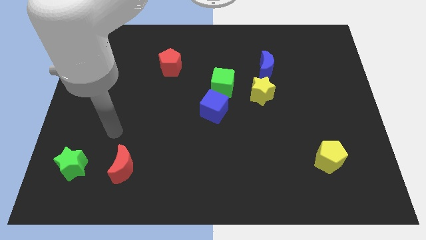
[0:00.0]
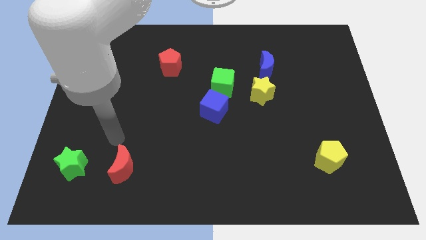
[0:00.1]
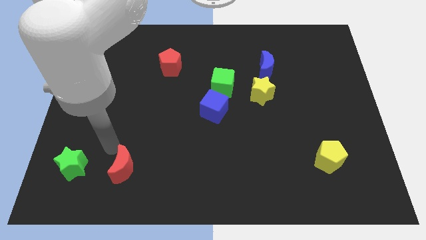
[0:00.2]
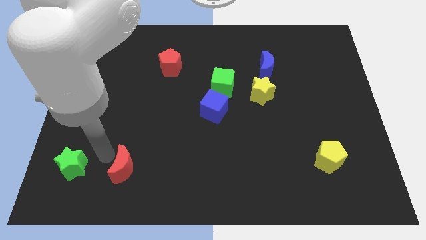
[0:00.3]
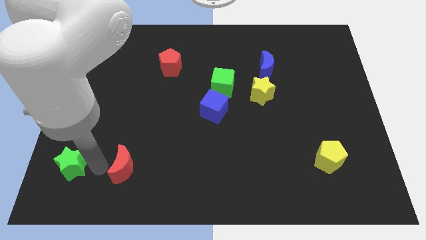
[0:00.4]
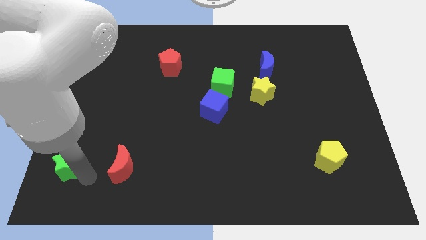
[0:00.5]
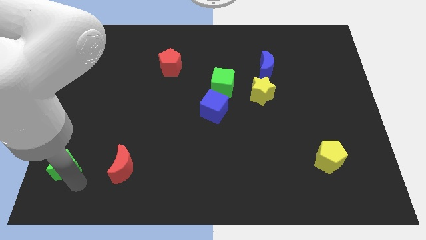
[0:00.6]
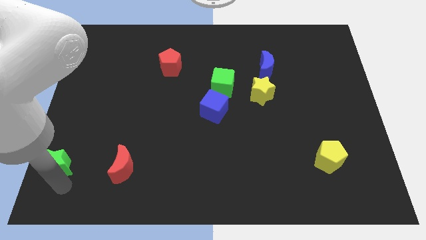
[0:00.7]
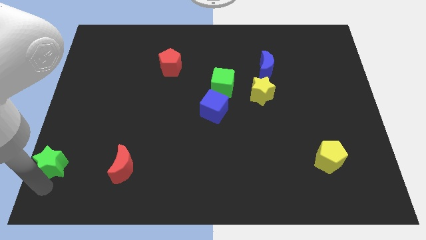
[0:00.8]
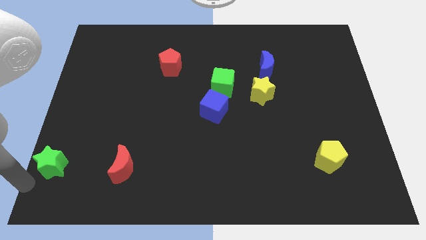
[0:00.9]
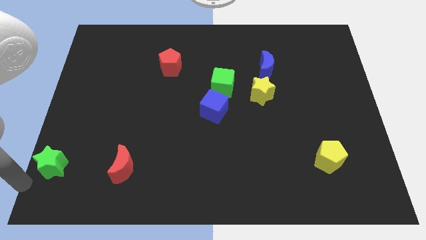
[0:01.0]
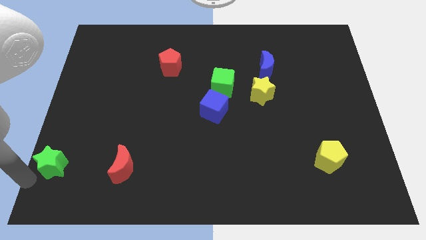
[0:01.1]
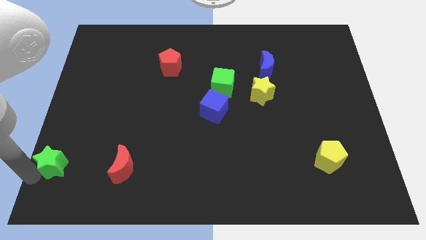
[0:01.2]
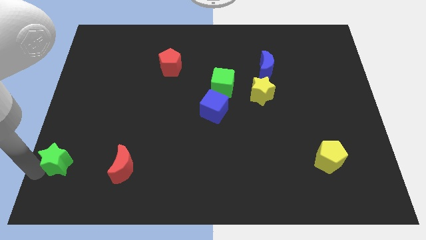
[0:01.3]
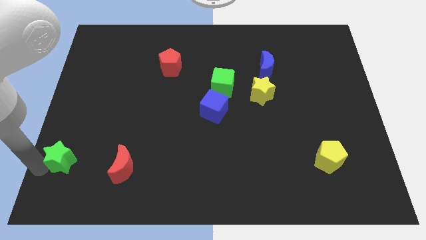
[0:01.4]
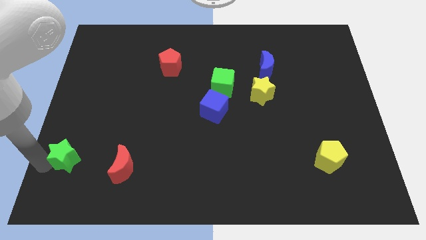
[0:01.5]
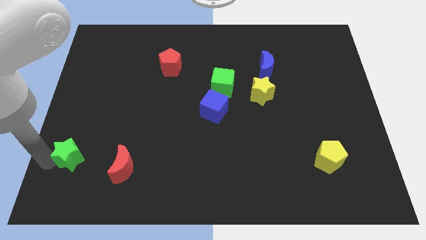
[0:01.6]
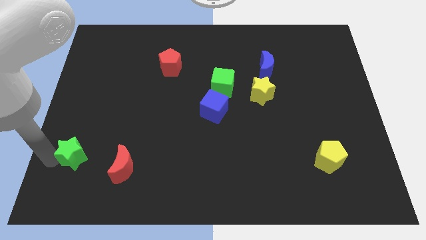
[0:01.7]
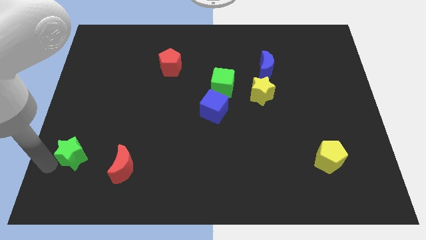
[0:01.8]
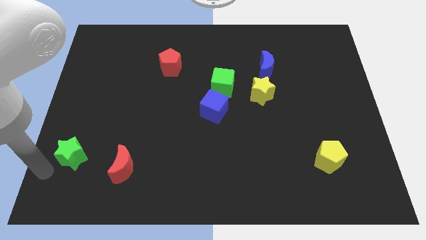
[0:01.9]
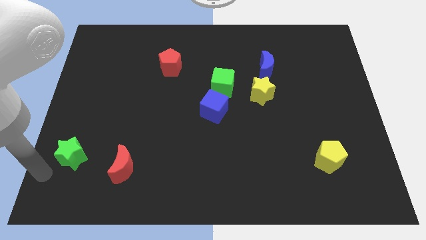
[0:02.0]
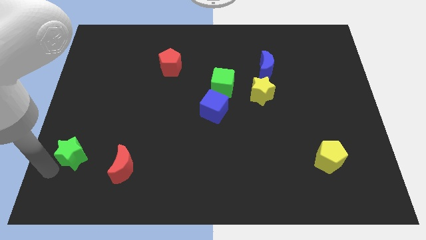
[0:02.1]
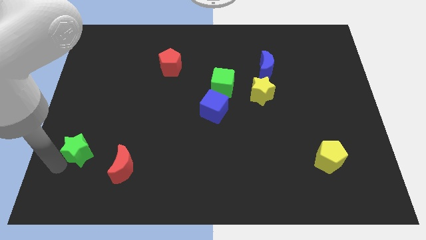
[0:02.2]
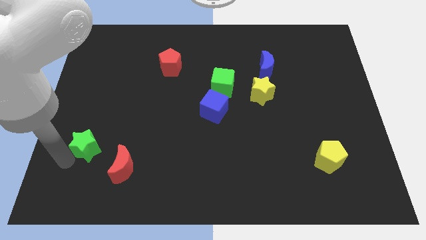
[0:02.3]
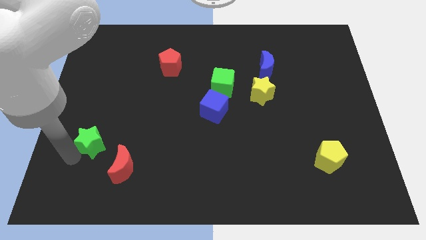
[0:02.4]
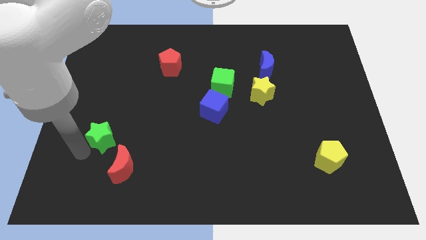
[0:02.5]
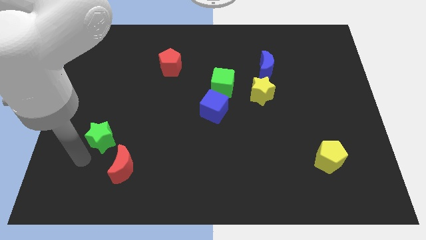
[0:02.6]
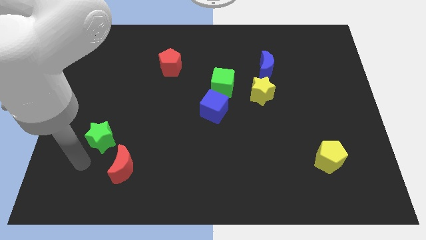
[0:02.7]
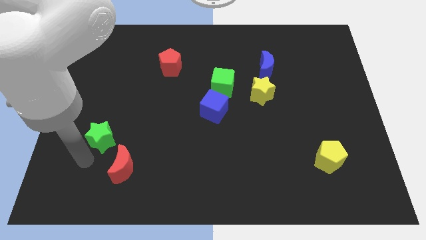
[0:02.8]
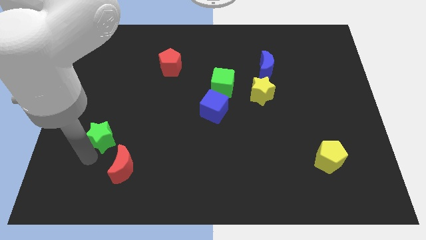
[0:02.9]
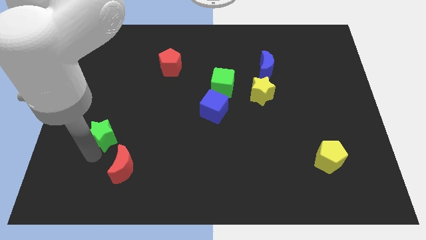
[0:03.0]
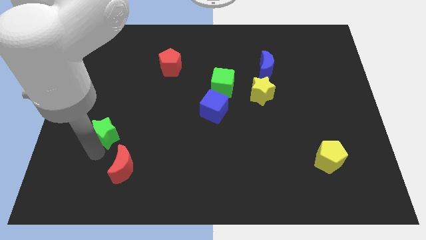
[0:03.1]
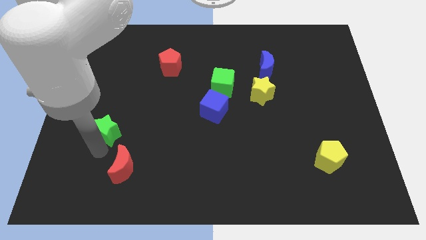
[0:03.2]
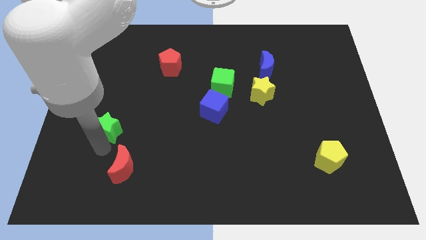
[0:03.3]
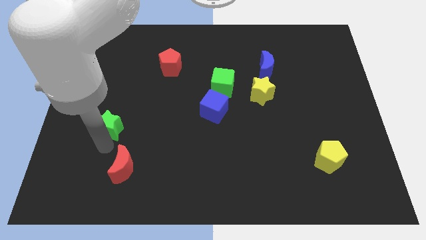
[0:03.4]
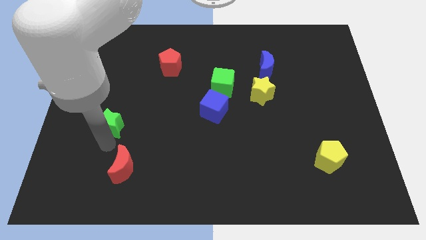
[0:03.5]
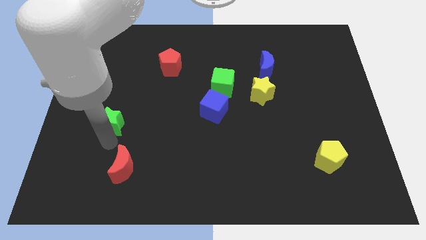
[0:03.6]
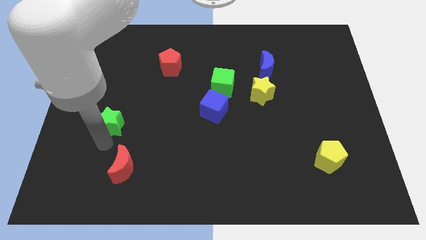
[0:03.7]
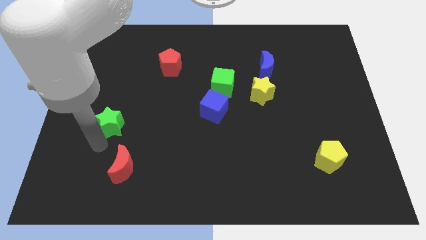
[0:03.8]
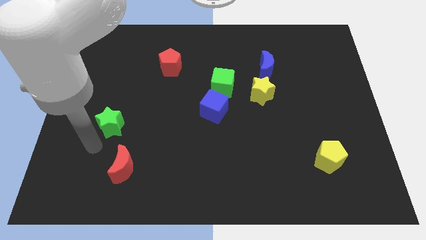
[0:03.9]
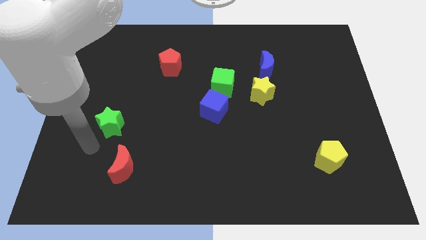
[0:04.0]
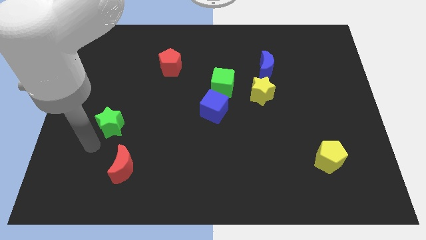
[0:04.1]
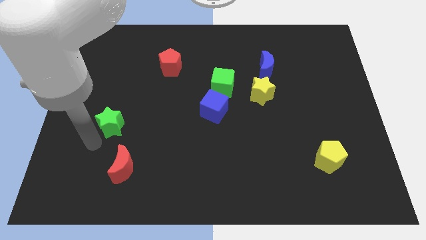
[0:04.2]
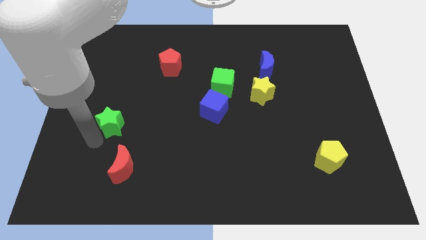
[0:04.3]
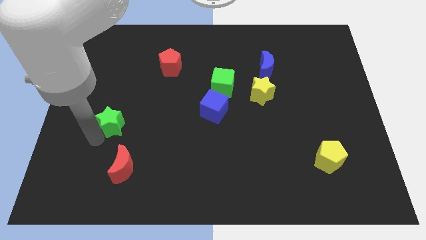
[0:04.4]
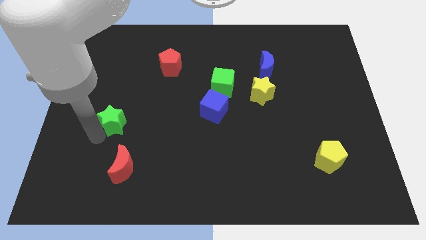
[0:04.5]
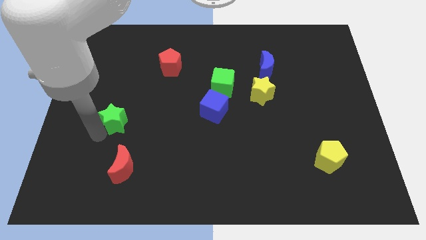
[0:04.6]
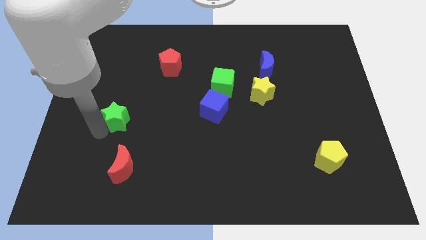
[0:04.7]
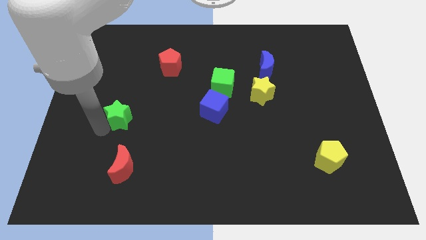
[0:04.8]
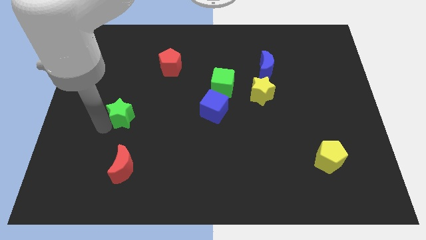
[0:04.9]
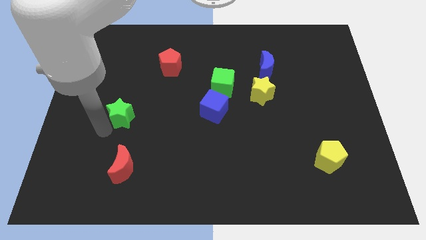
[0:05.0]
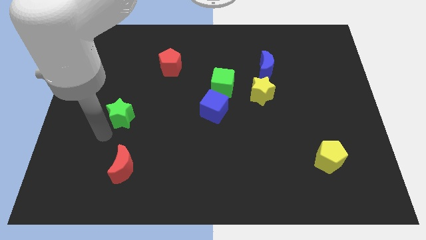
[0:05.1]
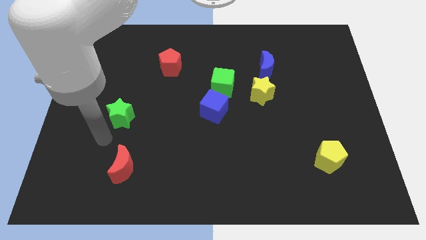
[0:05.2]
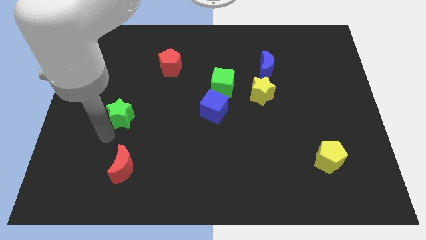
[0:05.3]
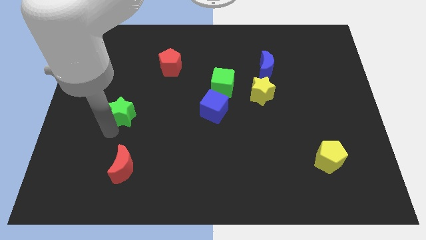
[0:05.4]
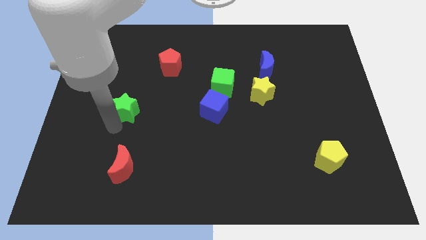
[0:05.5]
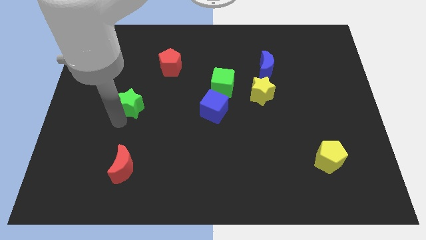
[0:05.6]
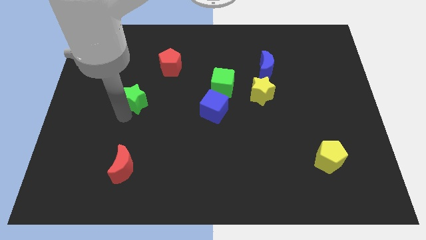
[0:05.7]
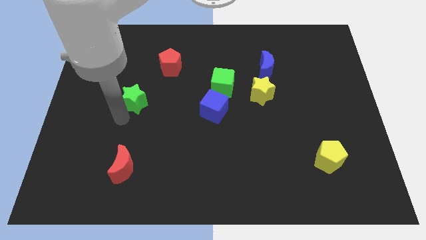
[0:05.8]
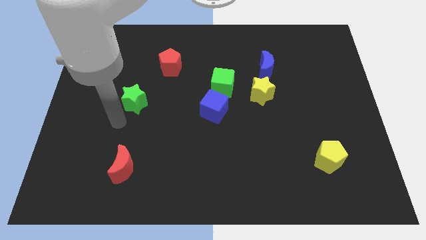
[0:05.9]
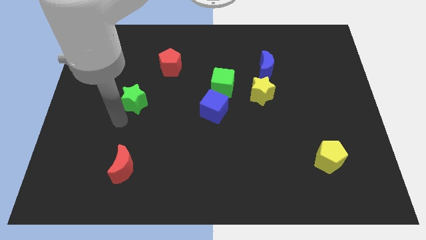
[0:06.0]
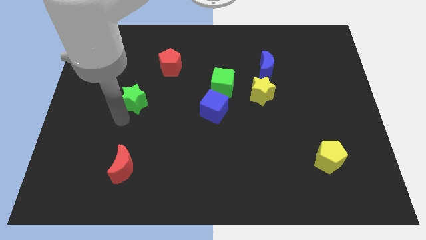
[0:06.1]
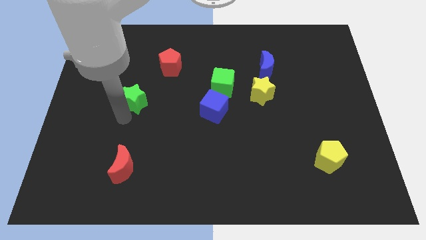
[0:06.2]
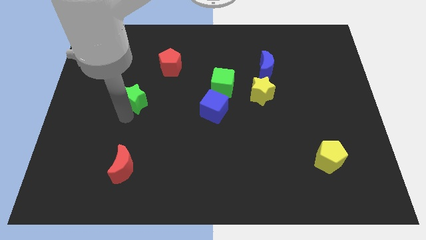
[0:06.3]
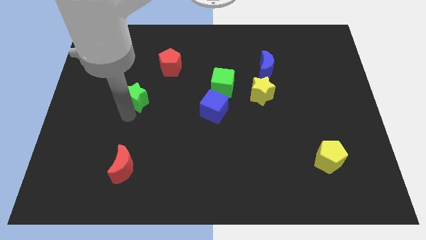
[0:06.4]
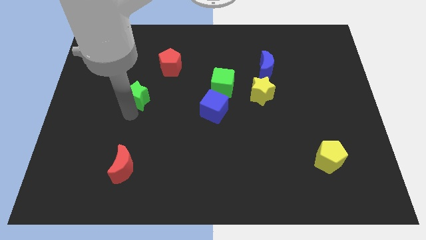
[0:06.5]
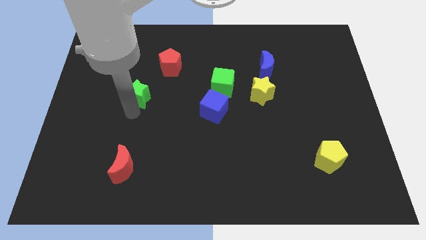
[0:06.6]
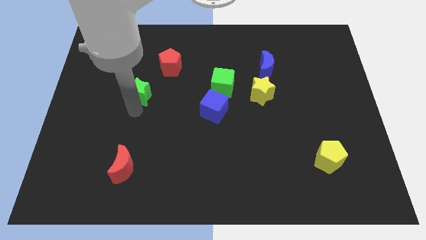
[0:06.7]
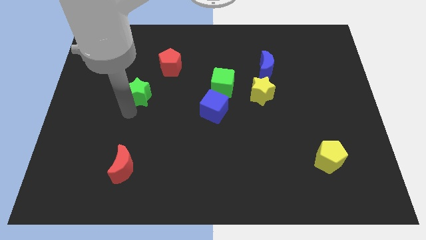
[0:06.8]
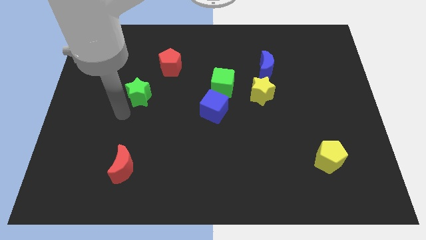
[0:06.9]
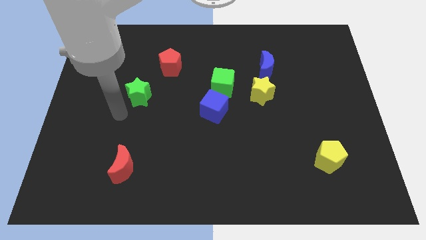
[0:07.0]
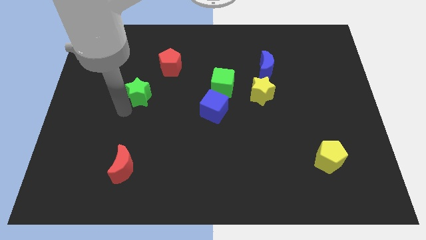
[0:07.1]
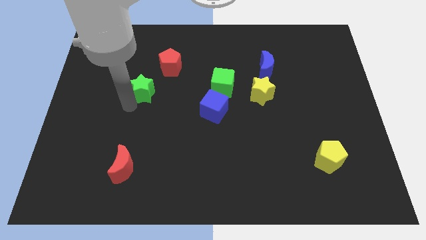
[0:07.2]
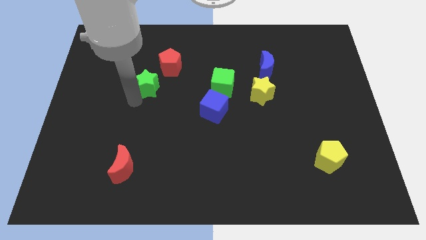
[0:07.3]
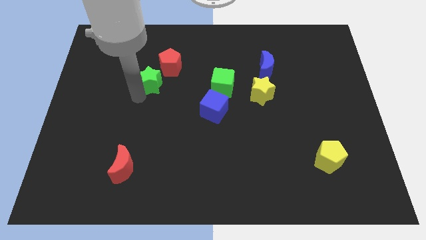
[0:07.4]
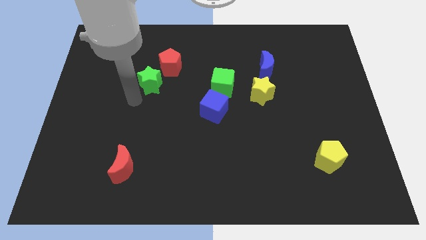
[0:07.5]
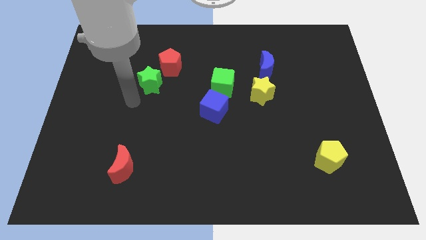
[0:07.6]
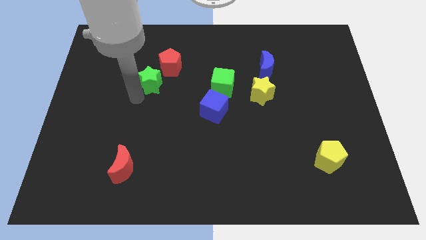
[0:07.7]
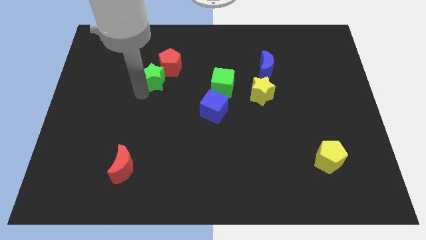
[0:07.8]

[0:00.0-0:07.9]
push the green star towards the red pentagon
